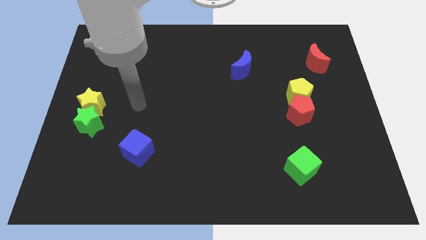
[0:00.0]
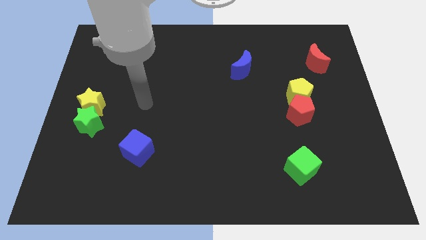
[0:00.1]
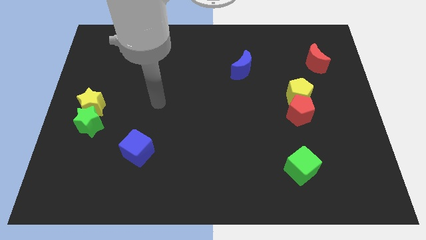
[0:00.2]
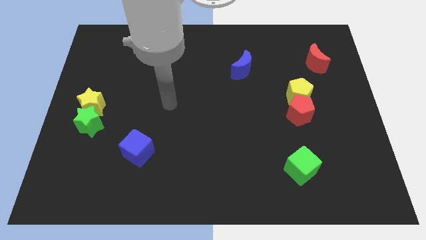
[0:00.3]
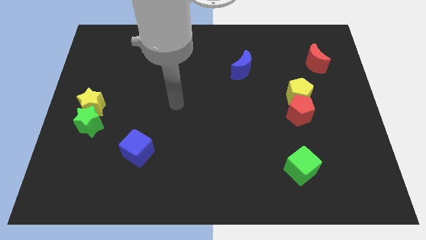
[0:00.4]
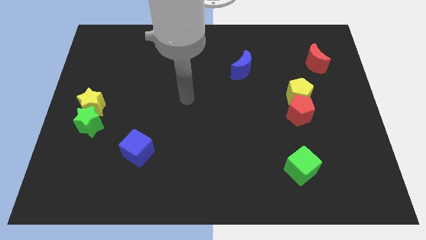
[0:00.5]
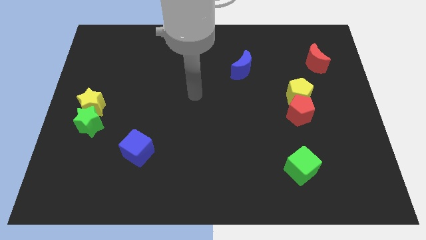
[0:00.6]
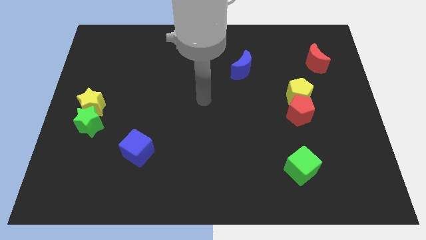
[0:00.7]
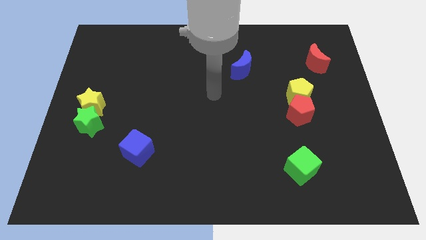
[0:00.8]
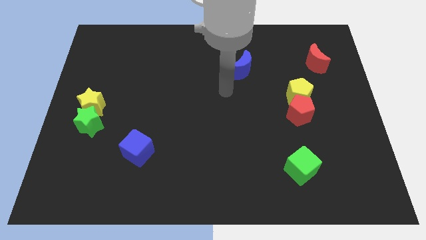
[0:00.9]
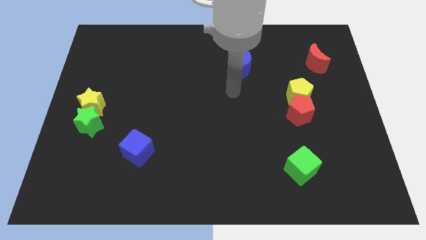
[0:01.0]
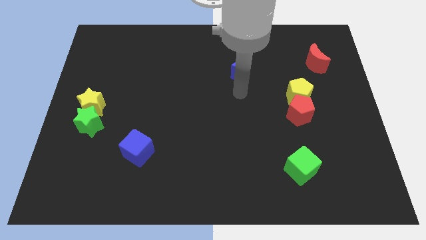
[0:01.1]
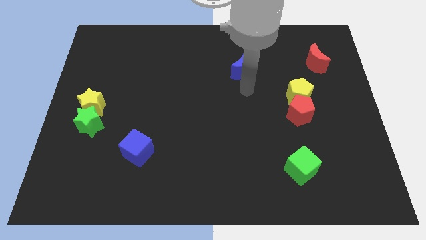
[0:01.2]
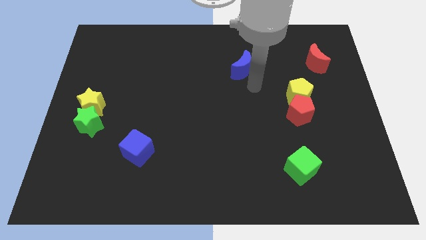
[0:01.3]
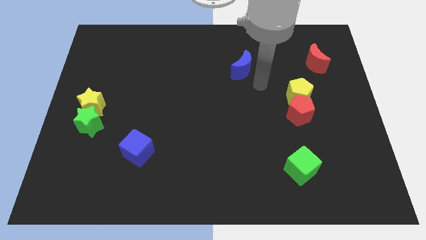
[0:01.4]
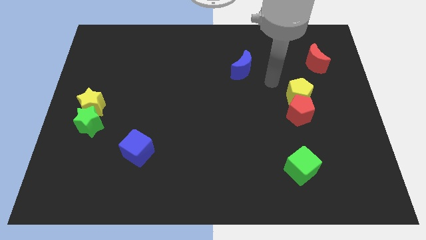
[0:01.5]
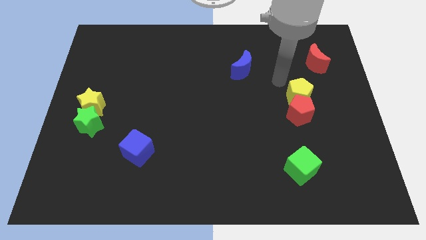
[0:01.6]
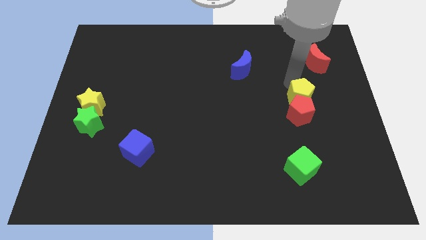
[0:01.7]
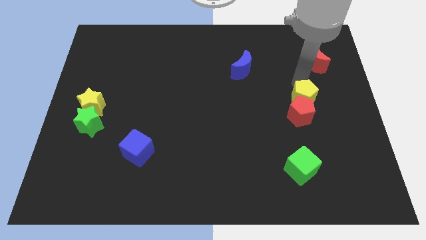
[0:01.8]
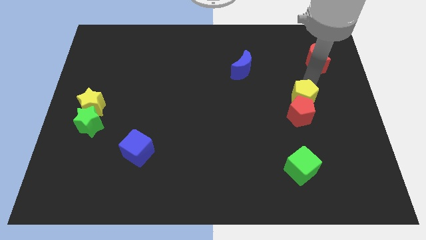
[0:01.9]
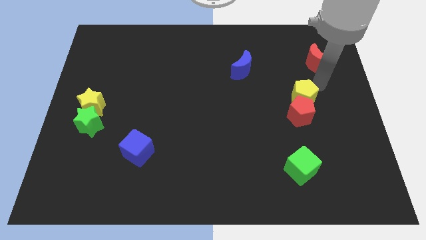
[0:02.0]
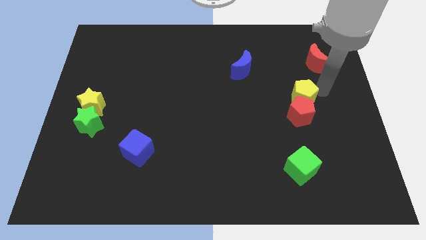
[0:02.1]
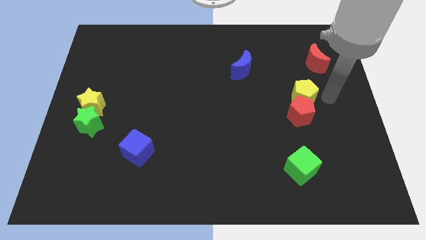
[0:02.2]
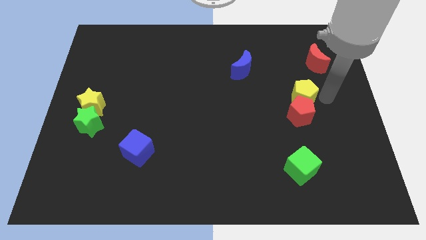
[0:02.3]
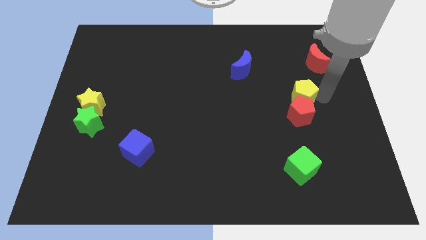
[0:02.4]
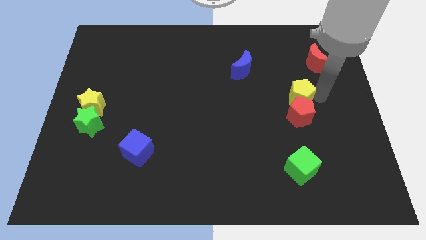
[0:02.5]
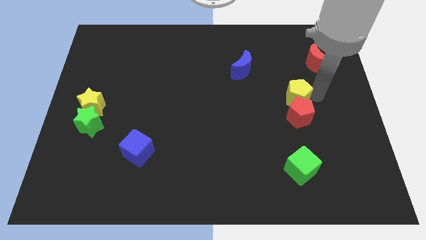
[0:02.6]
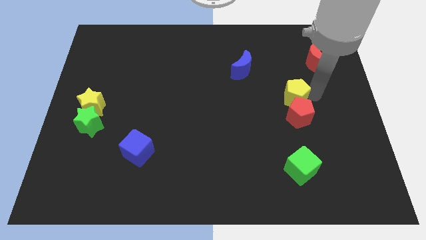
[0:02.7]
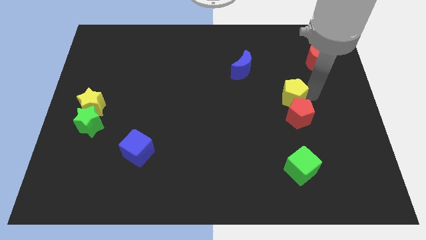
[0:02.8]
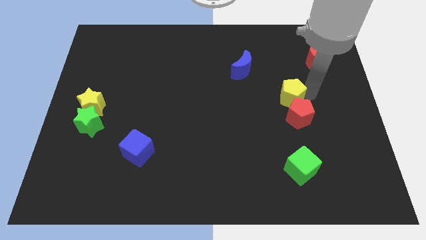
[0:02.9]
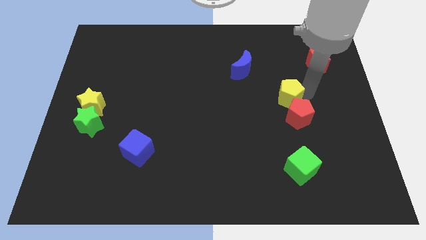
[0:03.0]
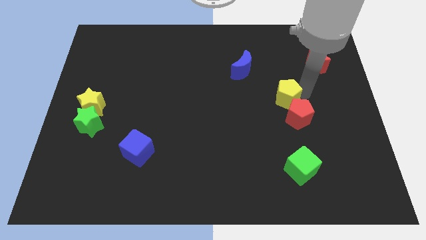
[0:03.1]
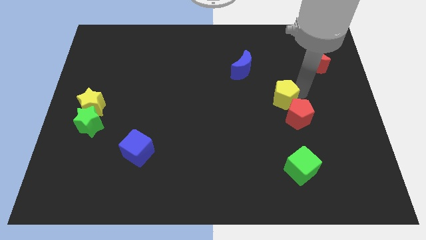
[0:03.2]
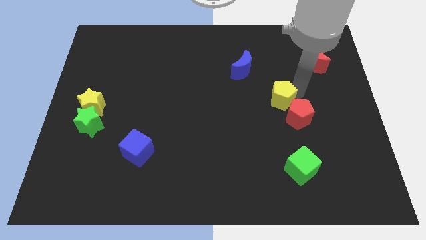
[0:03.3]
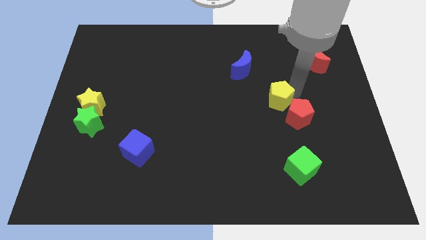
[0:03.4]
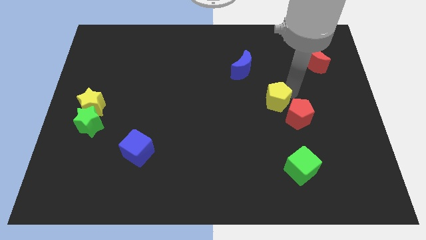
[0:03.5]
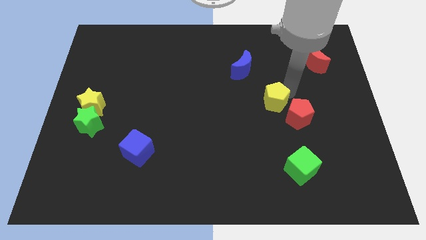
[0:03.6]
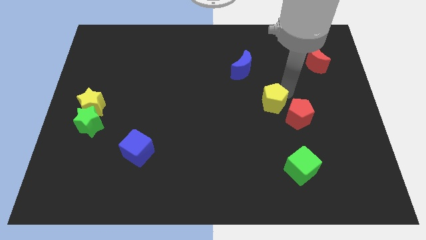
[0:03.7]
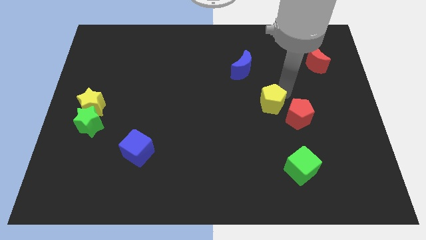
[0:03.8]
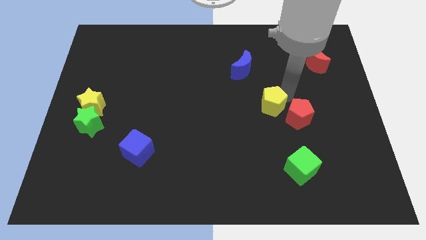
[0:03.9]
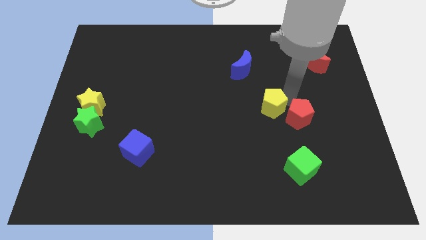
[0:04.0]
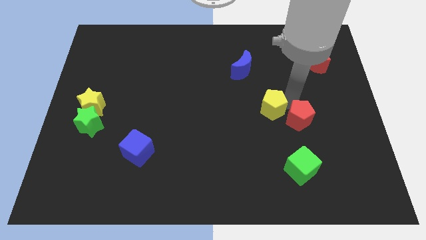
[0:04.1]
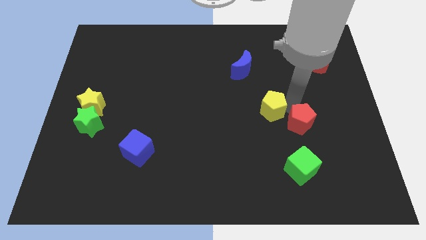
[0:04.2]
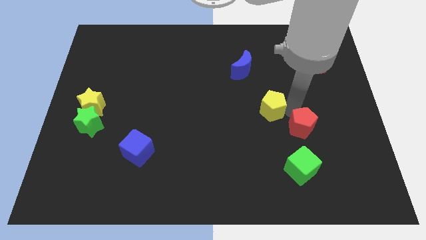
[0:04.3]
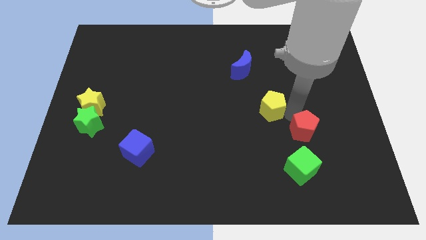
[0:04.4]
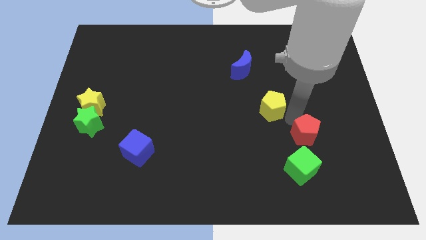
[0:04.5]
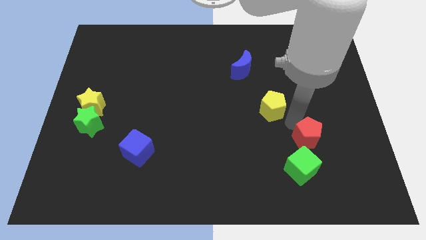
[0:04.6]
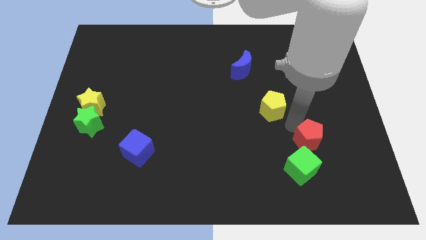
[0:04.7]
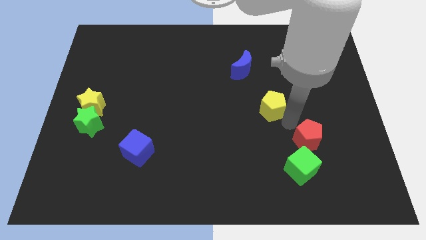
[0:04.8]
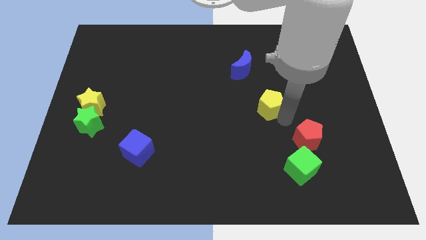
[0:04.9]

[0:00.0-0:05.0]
slightly slide the yellow pentagon left

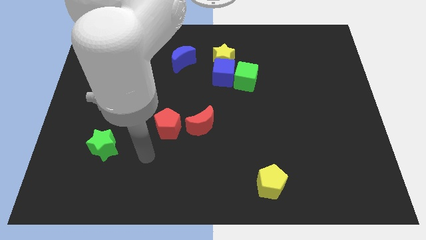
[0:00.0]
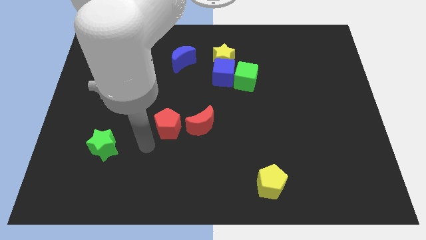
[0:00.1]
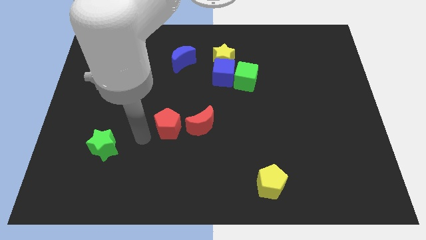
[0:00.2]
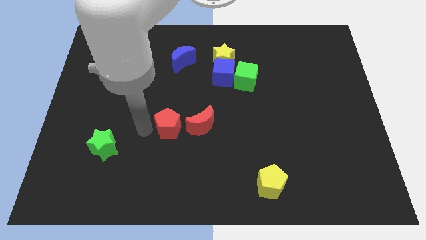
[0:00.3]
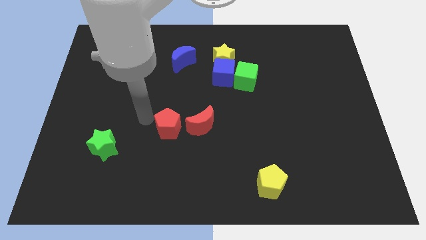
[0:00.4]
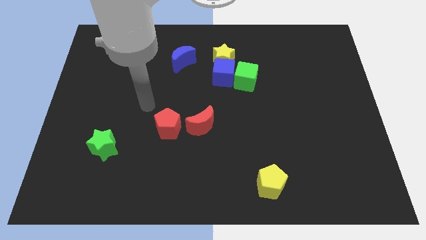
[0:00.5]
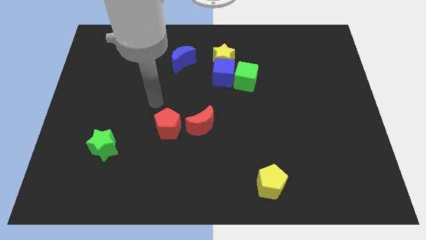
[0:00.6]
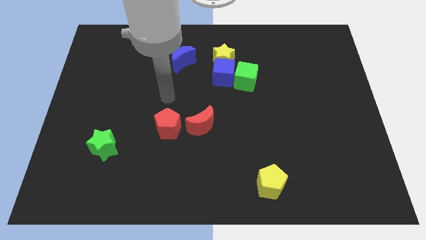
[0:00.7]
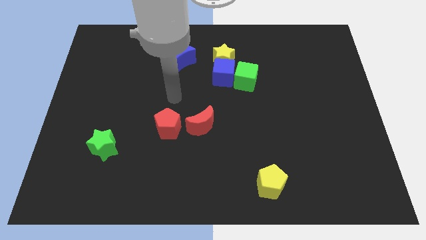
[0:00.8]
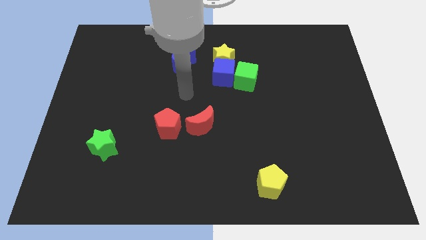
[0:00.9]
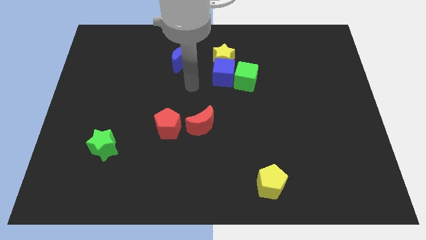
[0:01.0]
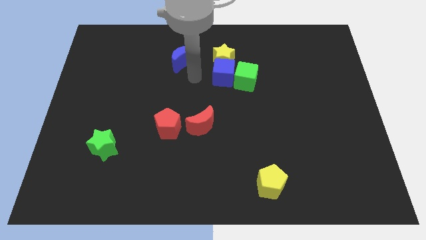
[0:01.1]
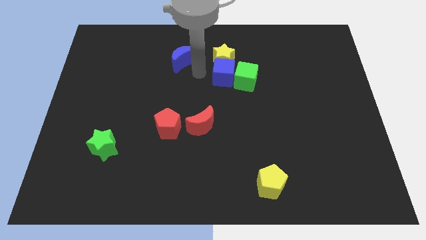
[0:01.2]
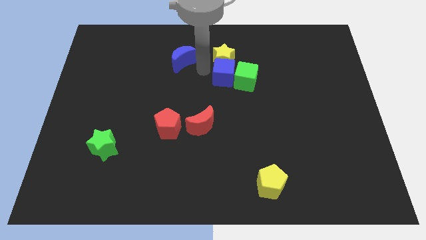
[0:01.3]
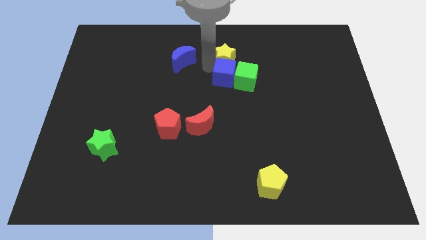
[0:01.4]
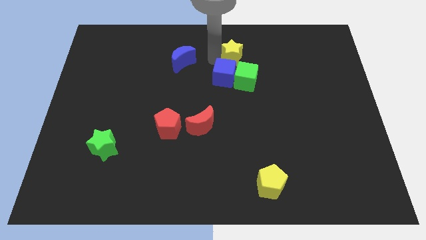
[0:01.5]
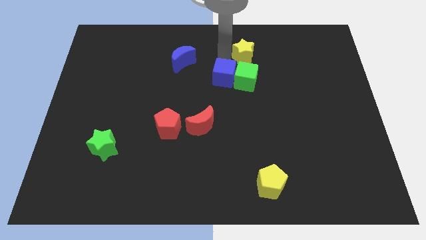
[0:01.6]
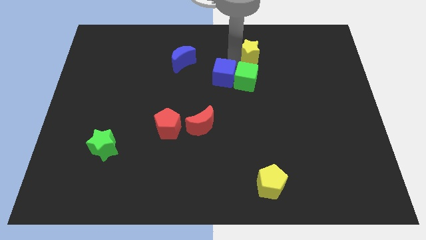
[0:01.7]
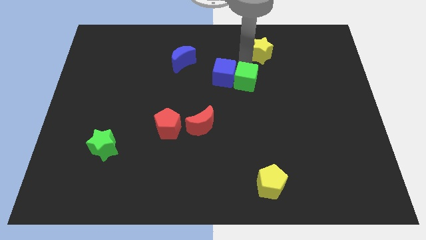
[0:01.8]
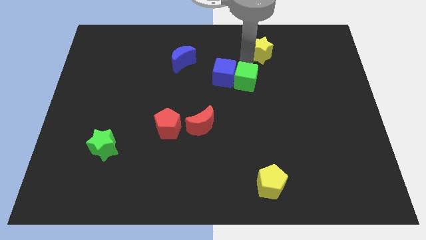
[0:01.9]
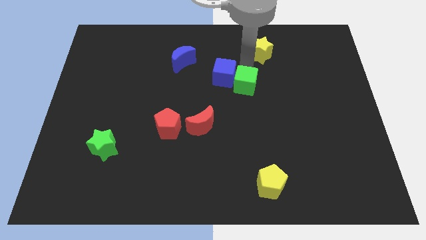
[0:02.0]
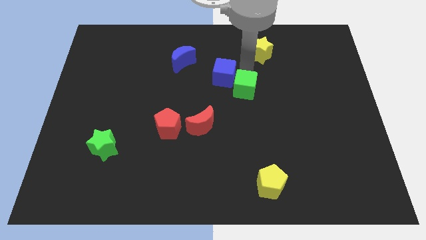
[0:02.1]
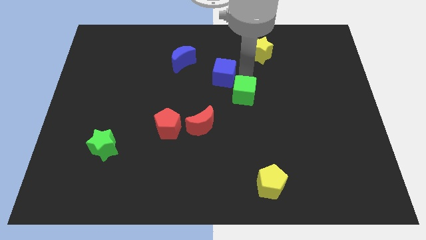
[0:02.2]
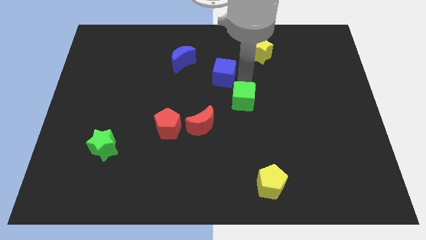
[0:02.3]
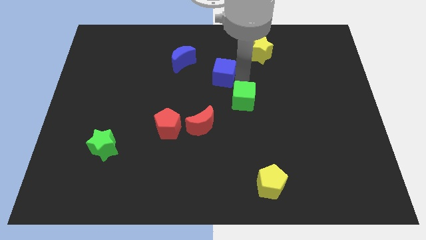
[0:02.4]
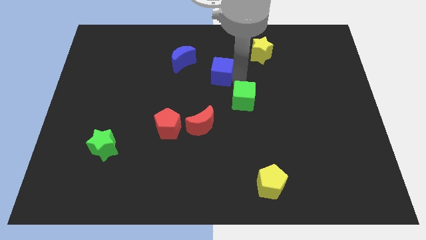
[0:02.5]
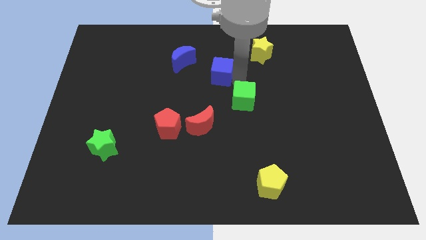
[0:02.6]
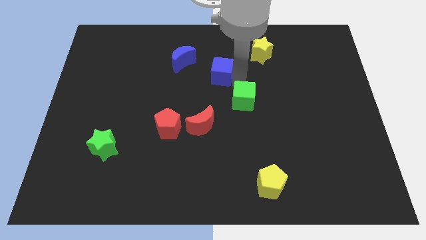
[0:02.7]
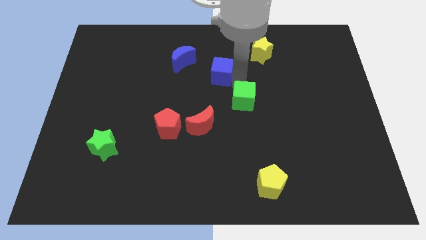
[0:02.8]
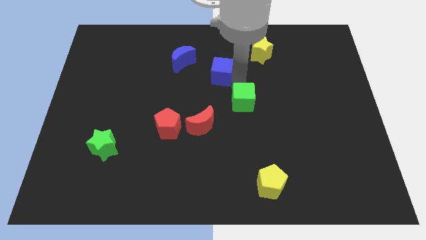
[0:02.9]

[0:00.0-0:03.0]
move the green cube down a little

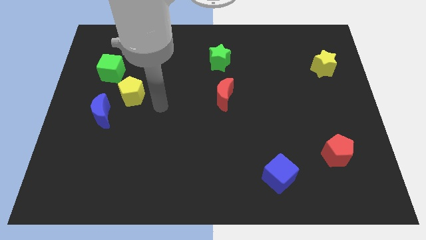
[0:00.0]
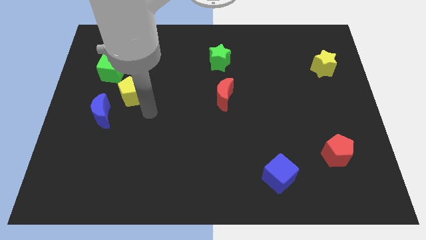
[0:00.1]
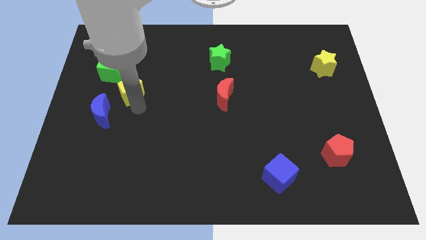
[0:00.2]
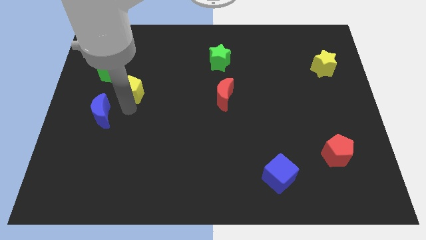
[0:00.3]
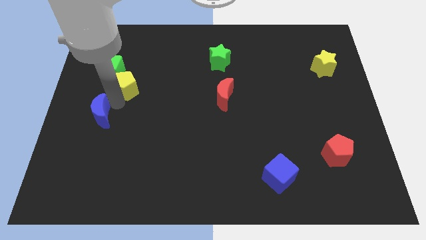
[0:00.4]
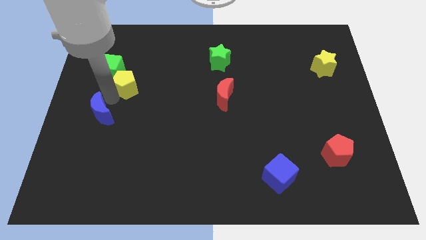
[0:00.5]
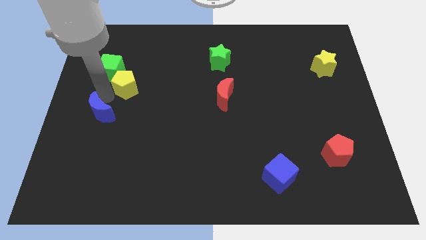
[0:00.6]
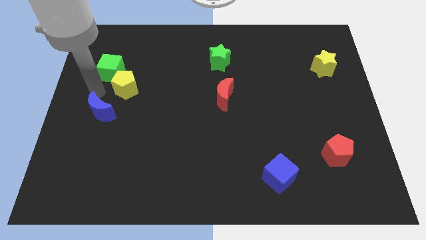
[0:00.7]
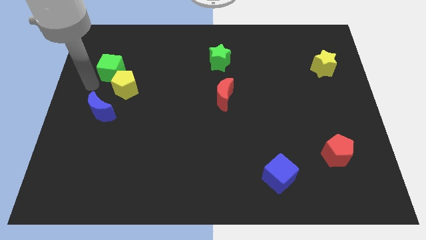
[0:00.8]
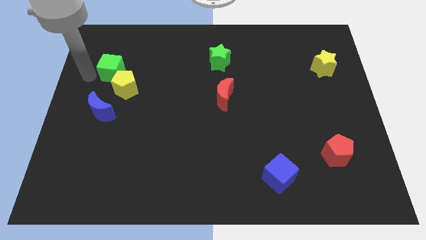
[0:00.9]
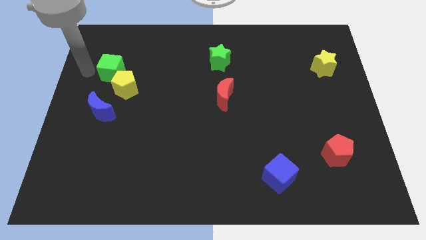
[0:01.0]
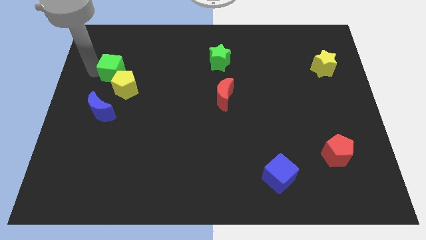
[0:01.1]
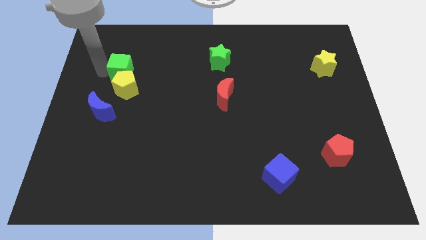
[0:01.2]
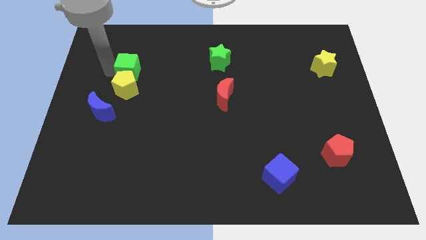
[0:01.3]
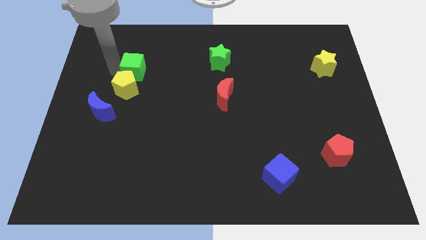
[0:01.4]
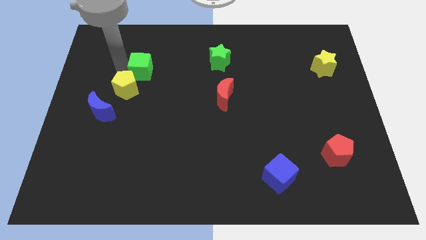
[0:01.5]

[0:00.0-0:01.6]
move the green cube a bit right
